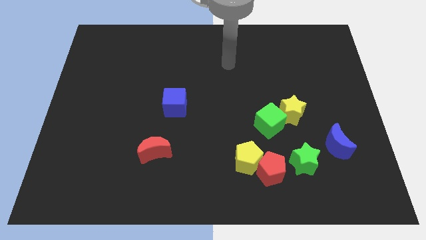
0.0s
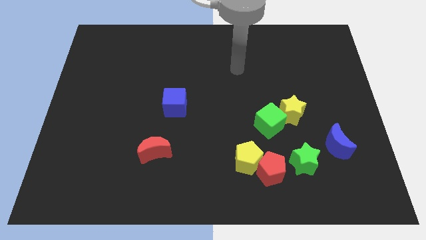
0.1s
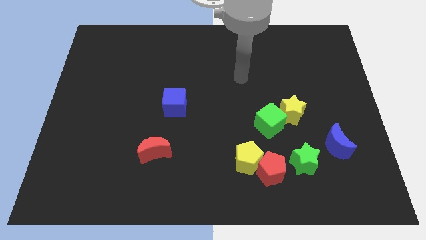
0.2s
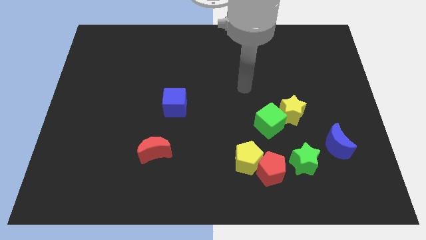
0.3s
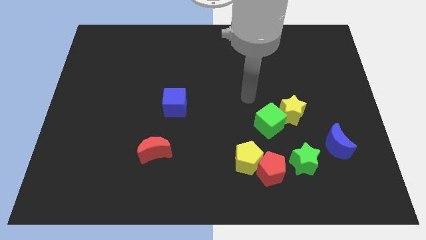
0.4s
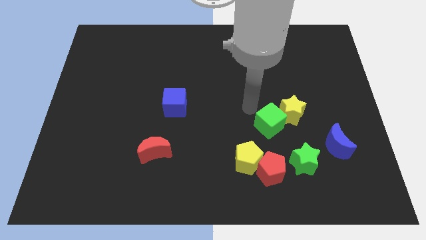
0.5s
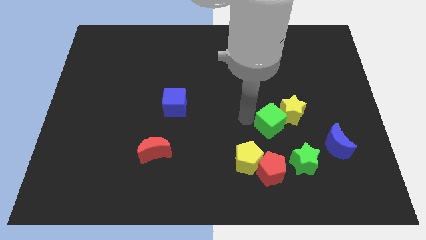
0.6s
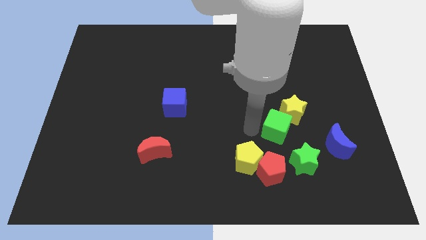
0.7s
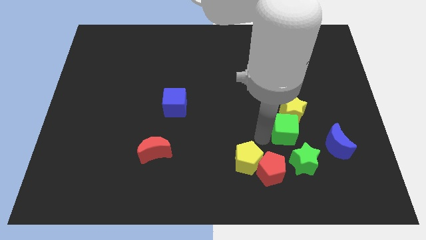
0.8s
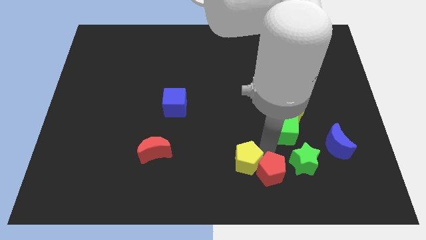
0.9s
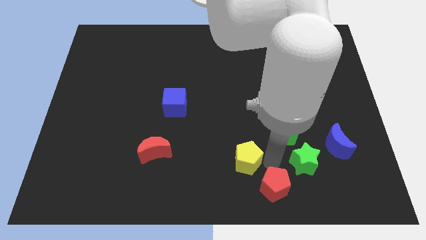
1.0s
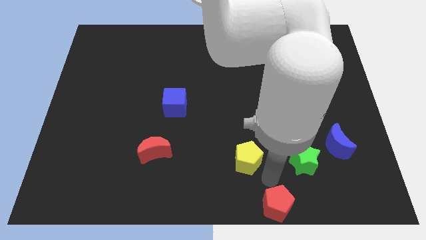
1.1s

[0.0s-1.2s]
pull the yellow pentagon apart from the red pentagon

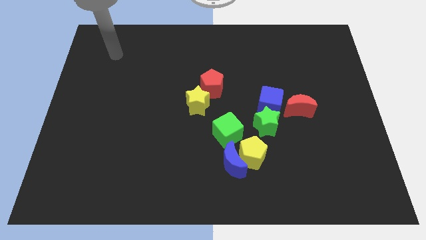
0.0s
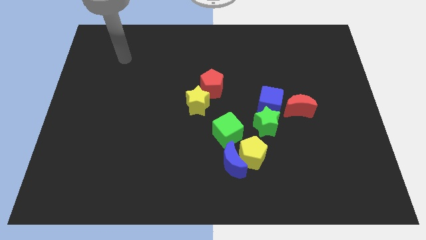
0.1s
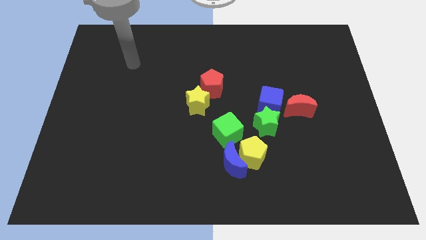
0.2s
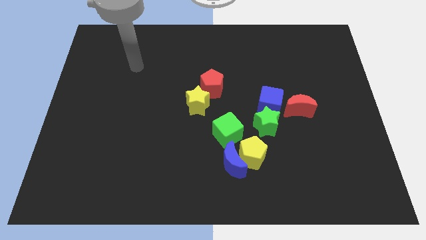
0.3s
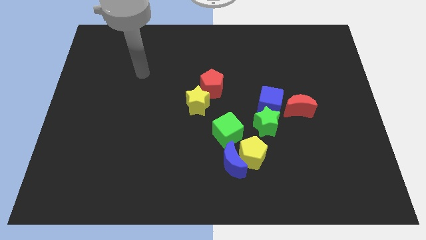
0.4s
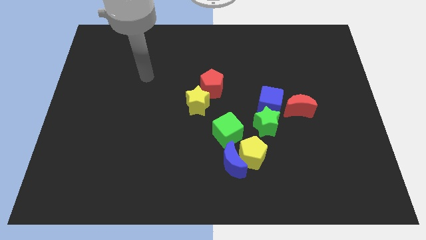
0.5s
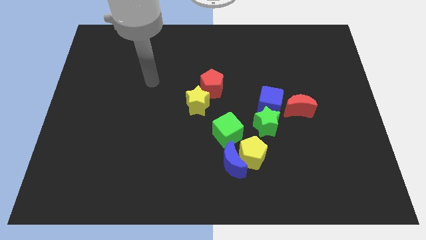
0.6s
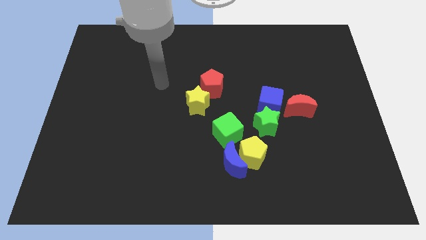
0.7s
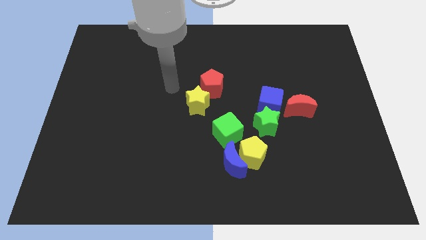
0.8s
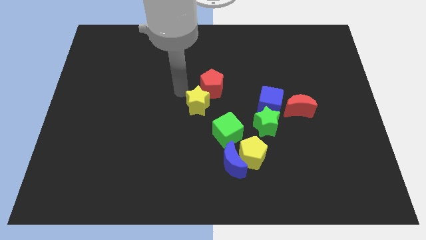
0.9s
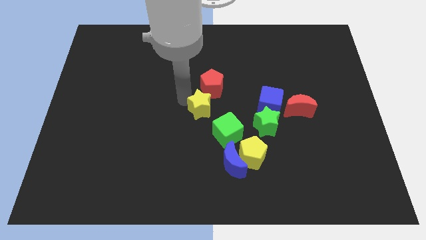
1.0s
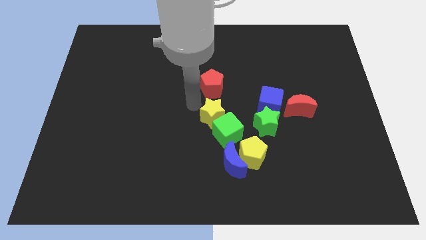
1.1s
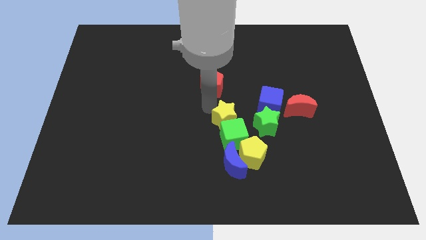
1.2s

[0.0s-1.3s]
pull the red pentagon apart from the yellow star

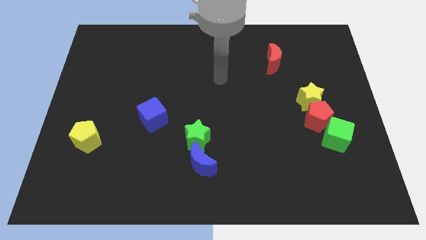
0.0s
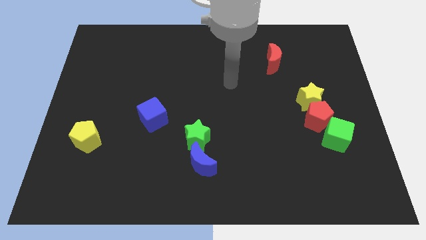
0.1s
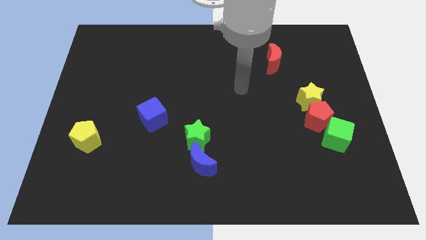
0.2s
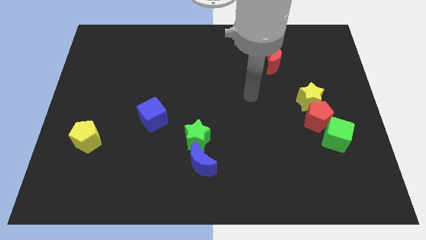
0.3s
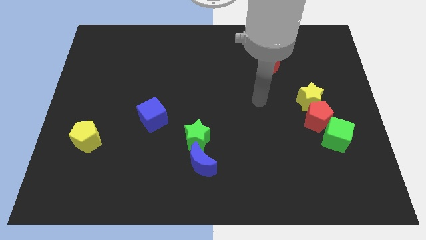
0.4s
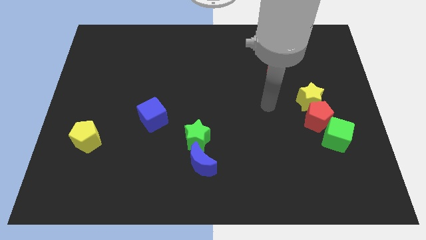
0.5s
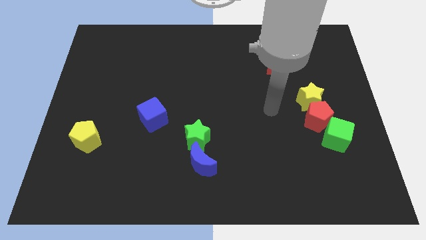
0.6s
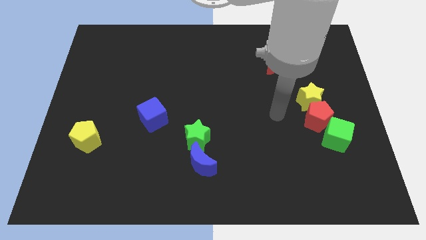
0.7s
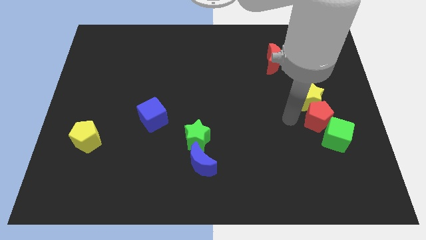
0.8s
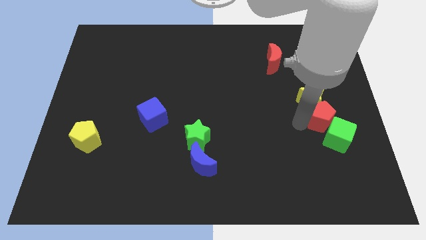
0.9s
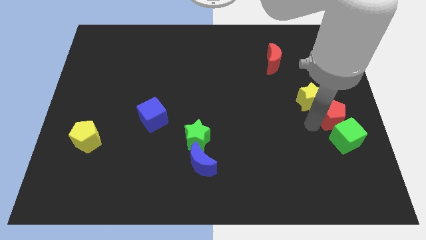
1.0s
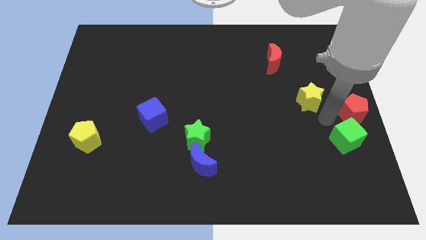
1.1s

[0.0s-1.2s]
separate the yellow star from the red pentagon

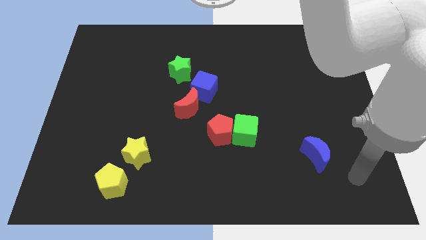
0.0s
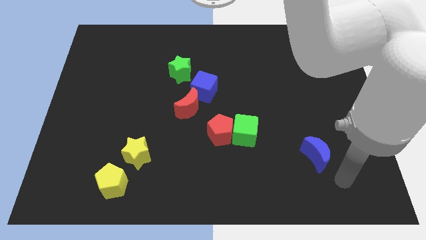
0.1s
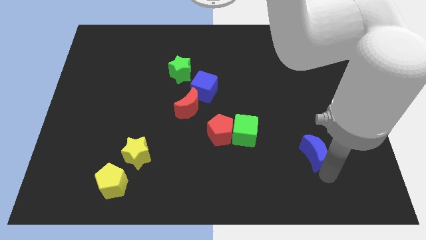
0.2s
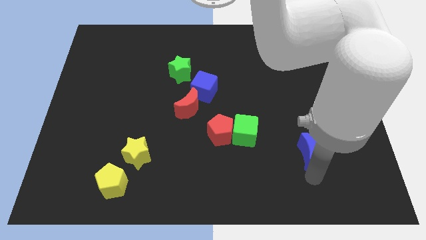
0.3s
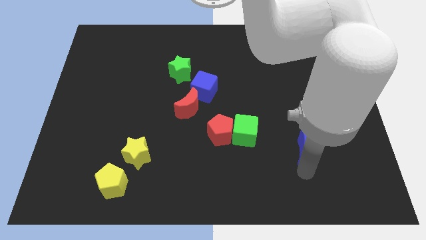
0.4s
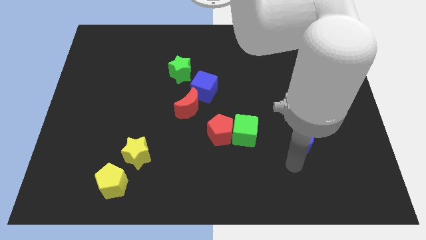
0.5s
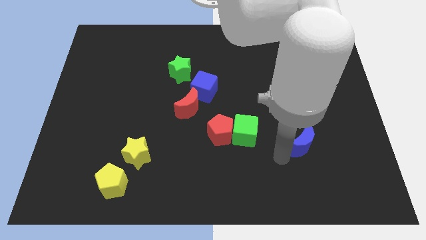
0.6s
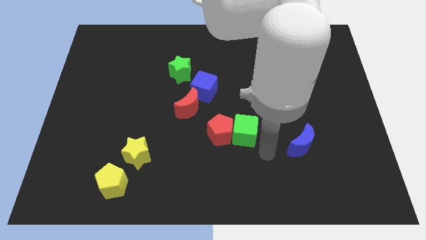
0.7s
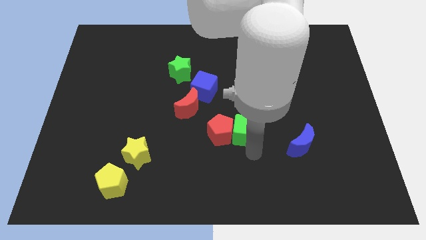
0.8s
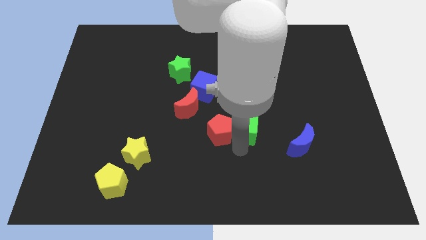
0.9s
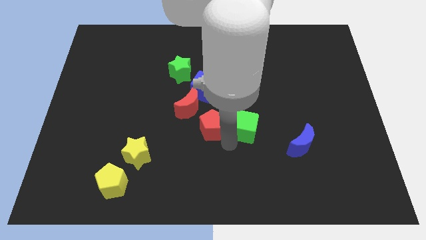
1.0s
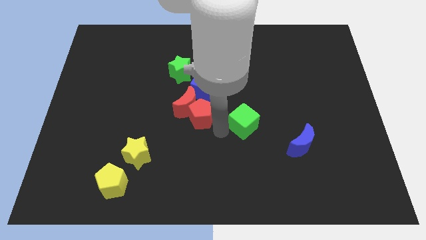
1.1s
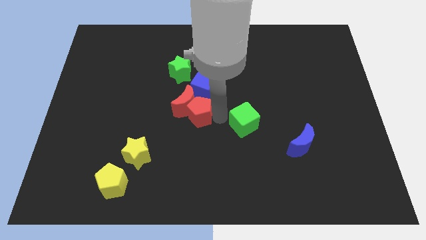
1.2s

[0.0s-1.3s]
move the green cube away from the red pentagon

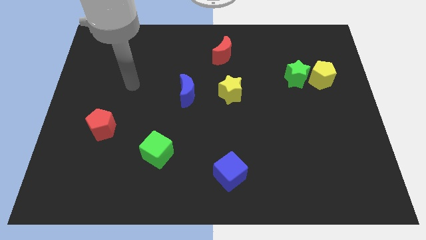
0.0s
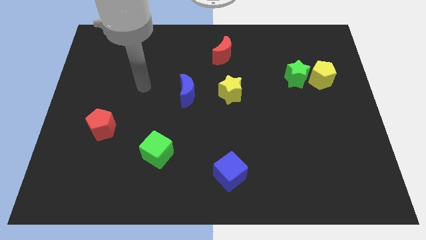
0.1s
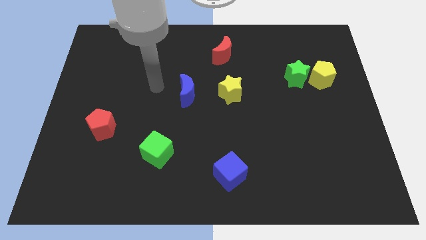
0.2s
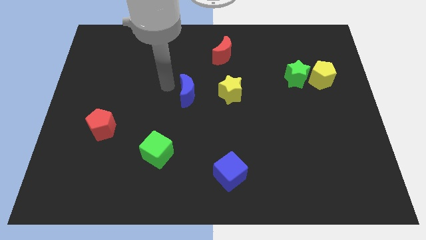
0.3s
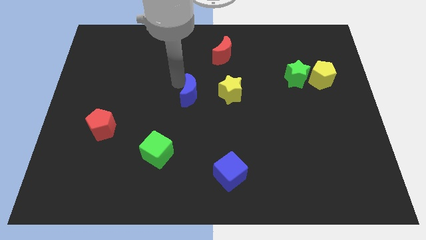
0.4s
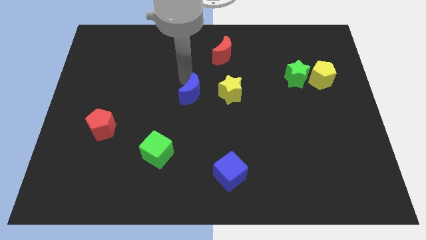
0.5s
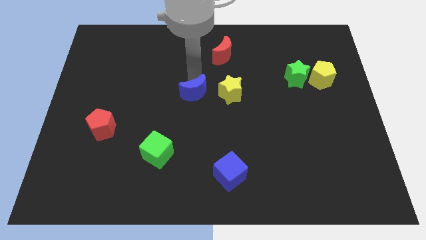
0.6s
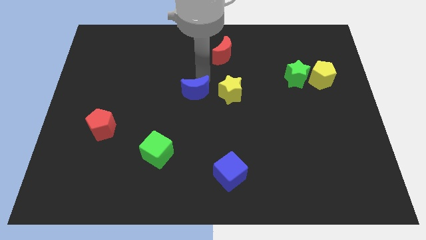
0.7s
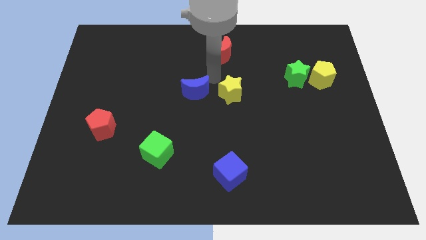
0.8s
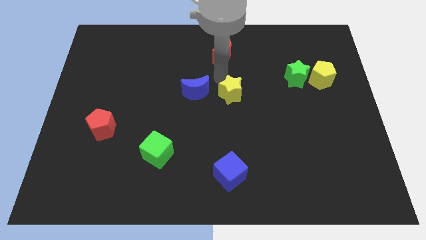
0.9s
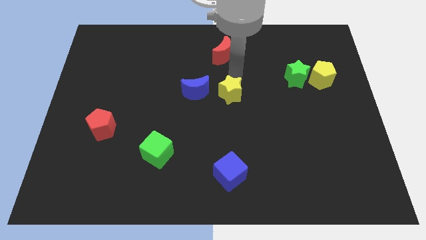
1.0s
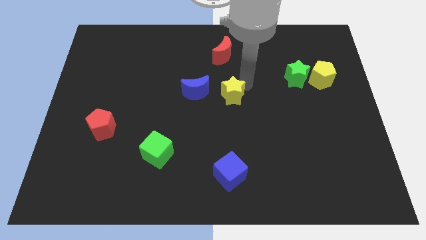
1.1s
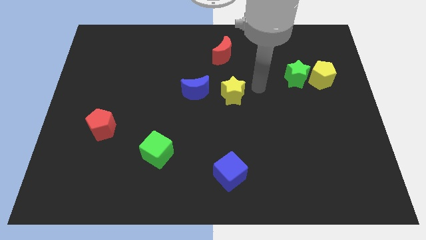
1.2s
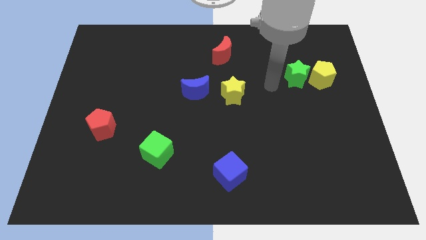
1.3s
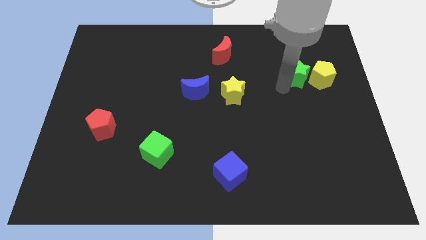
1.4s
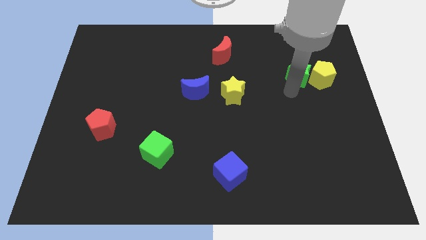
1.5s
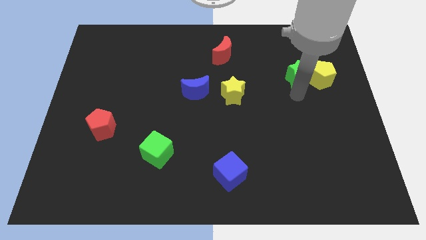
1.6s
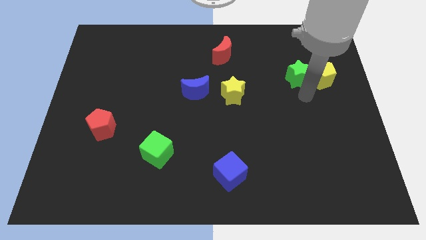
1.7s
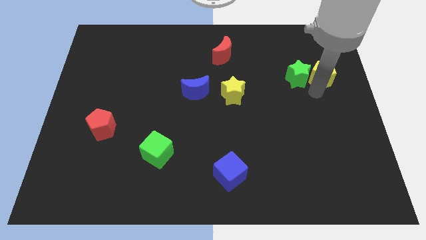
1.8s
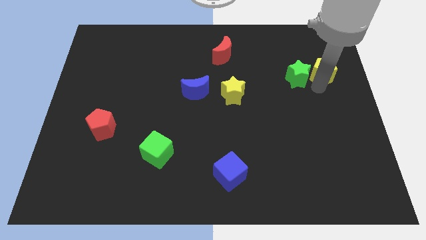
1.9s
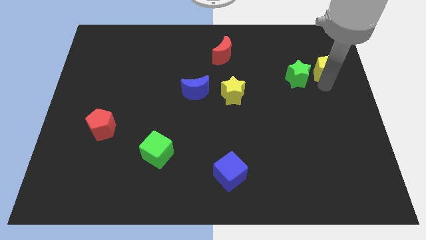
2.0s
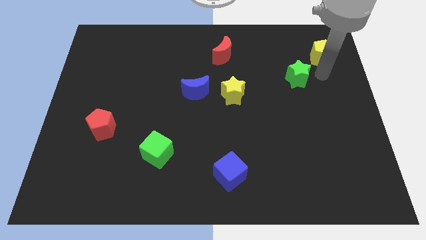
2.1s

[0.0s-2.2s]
pull the green star apart from the yellow pentagon

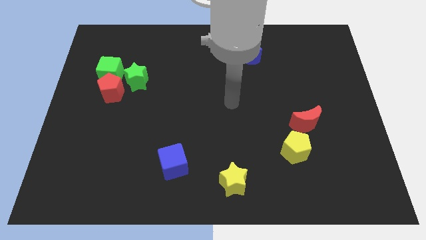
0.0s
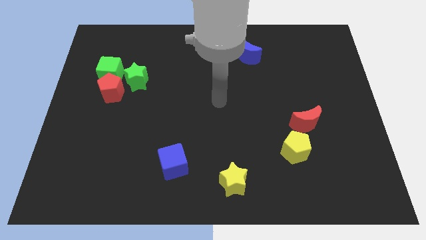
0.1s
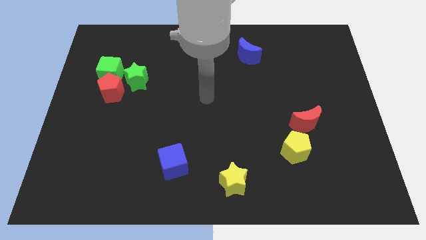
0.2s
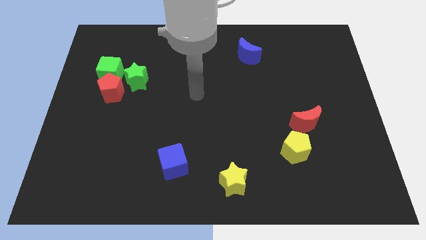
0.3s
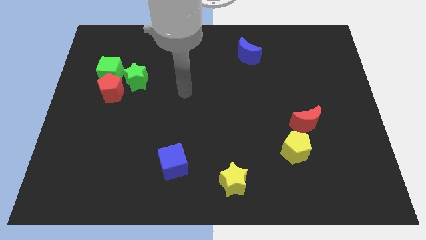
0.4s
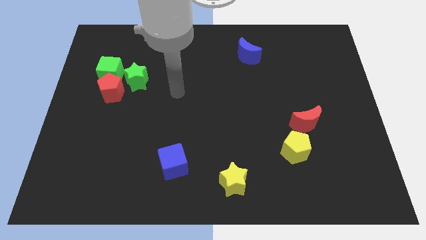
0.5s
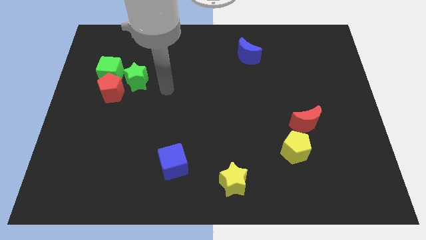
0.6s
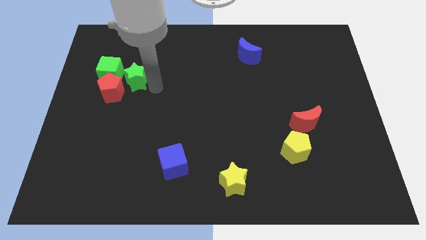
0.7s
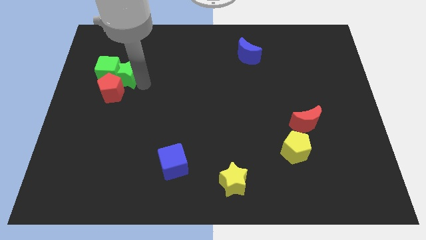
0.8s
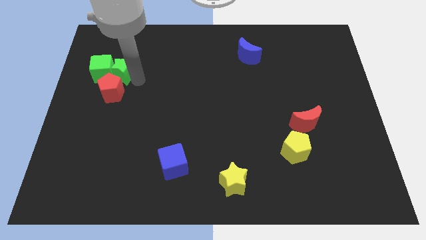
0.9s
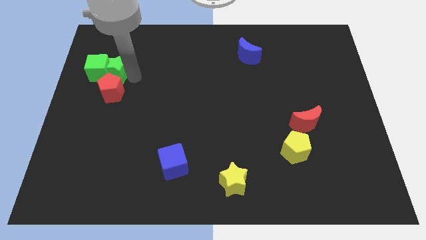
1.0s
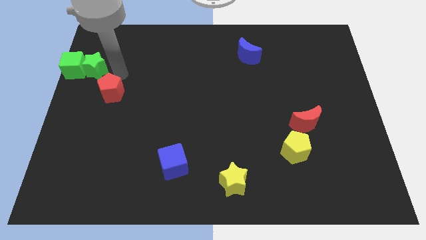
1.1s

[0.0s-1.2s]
separate the red pentagon from the green cube and green star

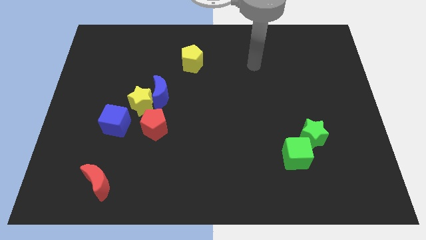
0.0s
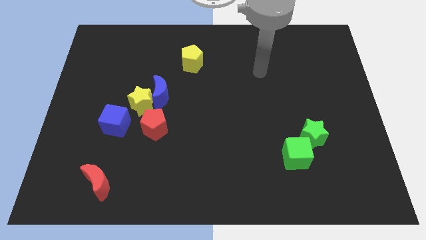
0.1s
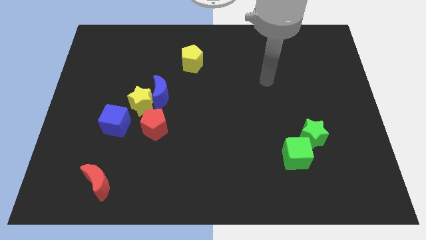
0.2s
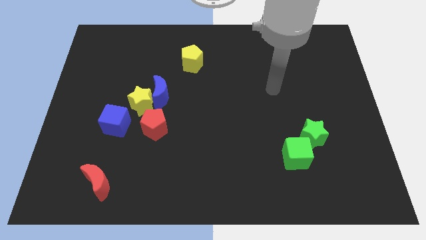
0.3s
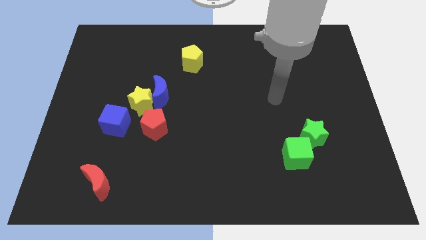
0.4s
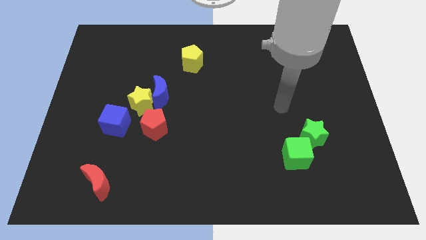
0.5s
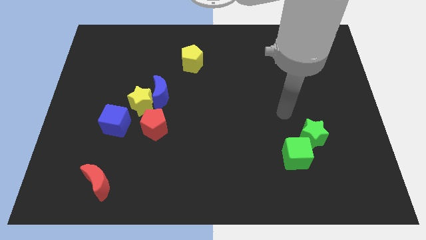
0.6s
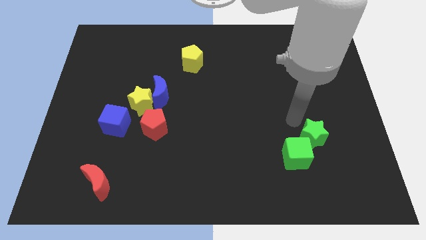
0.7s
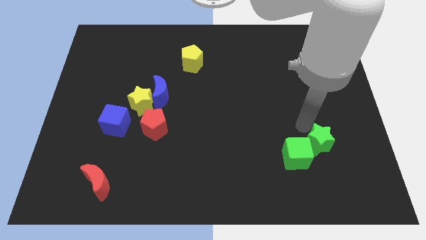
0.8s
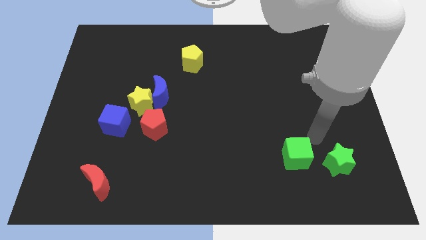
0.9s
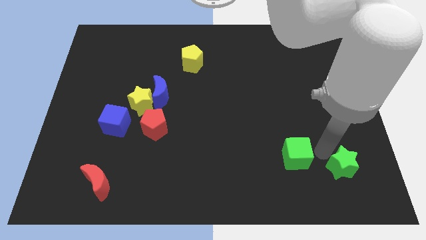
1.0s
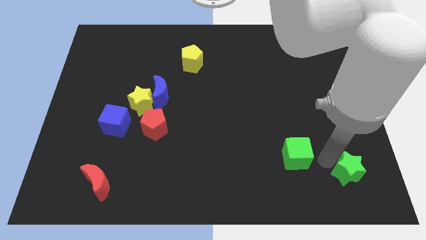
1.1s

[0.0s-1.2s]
pull the green cube apart from the green star
